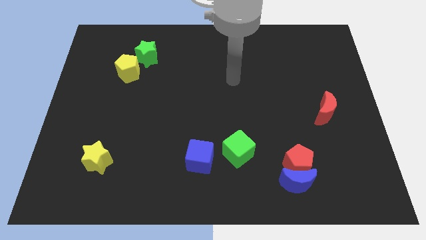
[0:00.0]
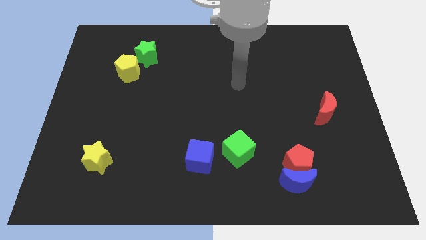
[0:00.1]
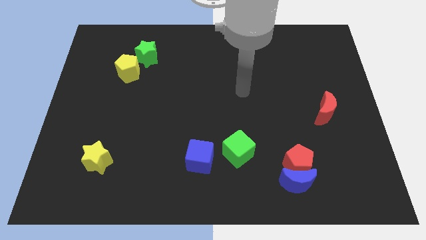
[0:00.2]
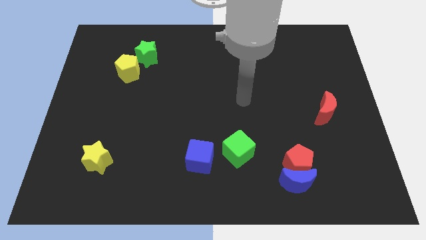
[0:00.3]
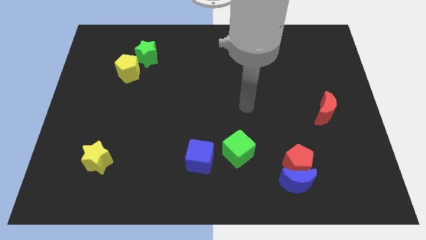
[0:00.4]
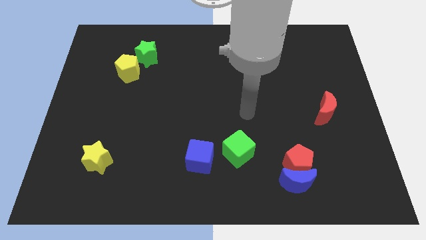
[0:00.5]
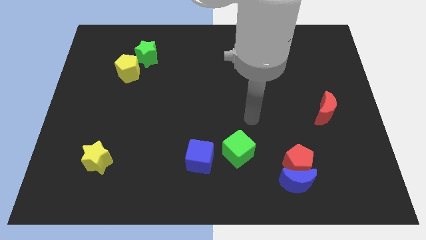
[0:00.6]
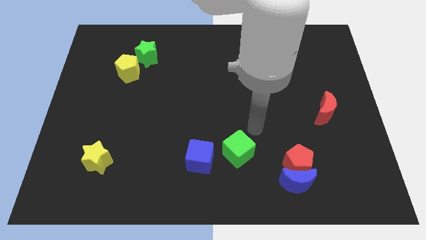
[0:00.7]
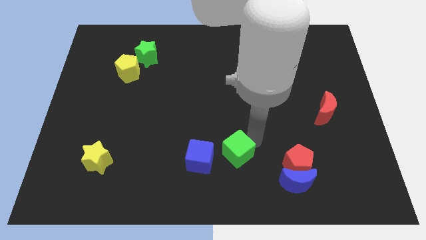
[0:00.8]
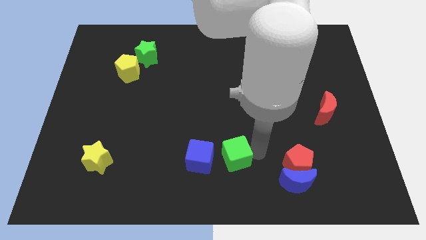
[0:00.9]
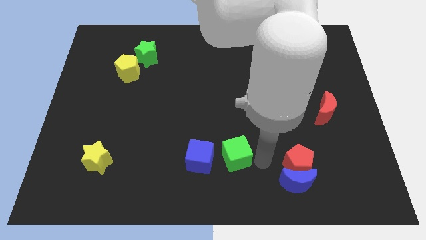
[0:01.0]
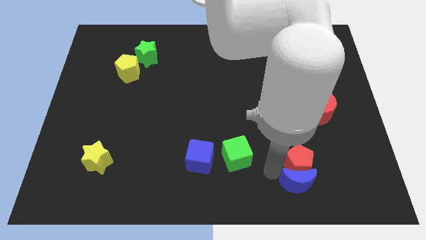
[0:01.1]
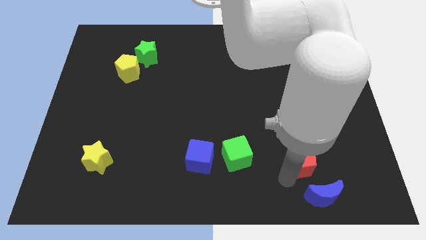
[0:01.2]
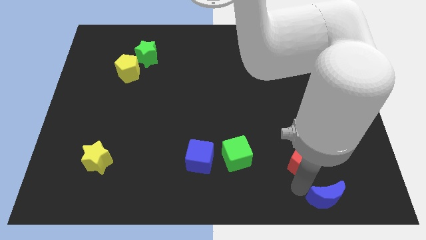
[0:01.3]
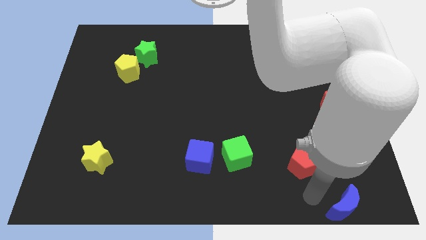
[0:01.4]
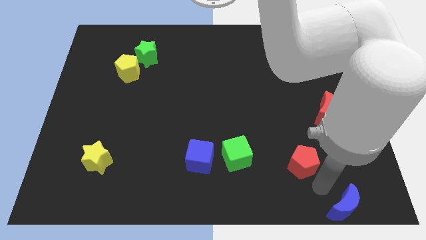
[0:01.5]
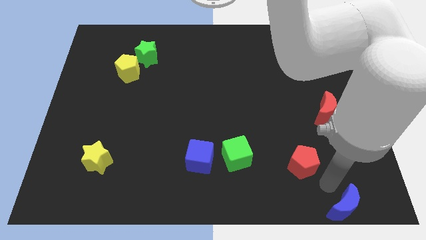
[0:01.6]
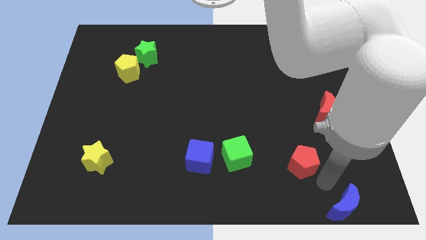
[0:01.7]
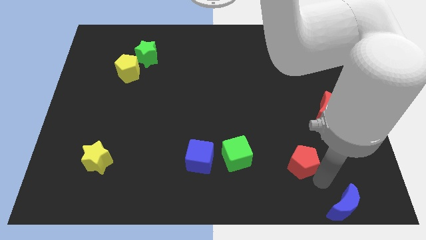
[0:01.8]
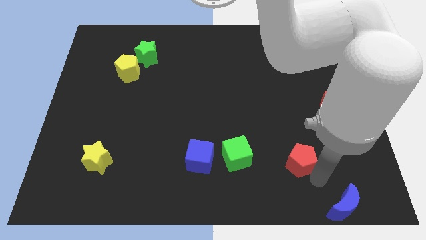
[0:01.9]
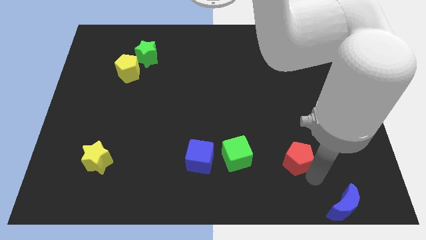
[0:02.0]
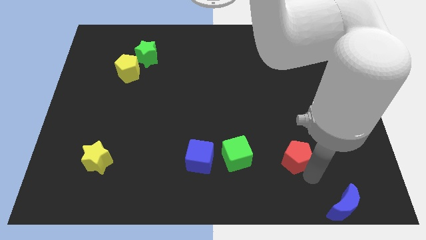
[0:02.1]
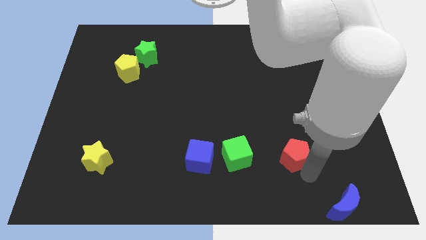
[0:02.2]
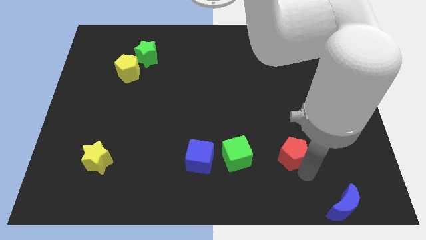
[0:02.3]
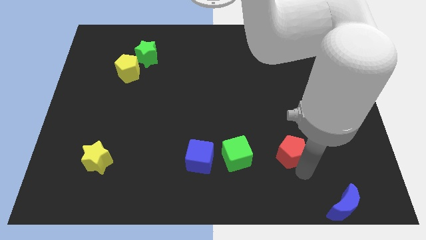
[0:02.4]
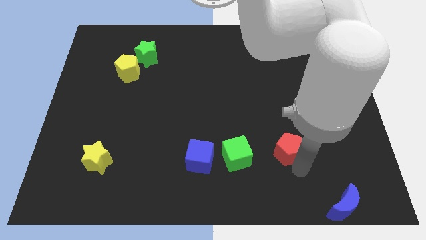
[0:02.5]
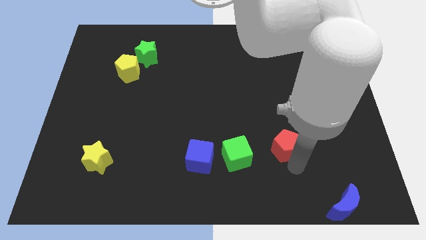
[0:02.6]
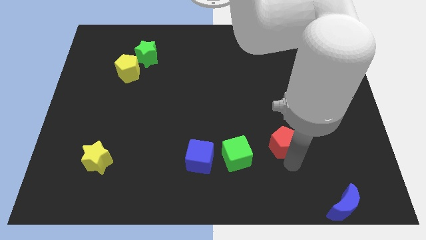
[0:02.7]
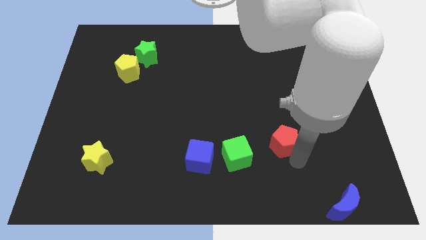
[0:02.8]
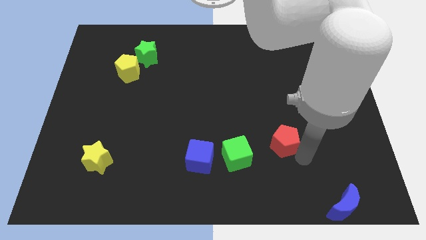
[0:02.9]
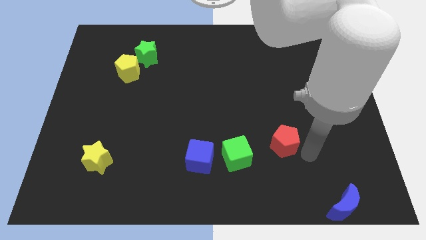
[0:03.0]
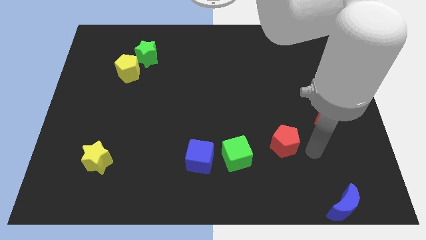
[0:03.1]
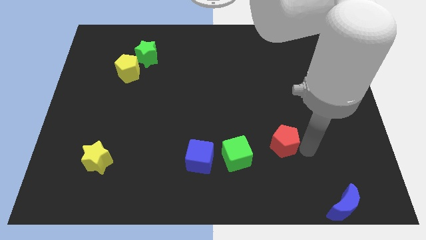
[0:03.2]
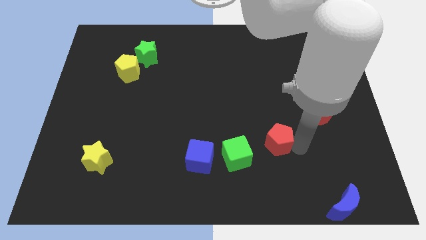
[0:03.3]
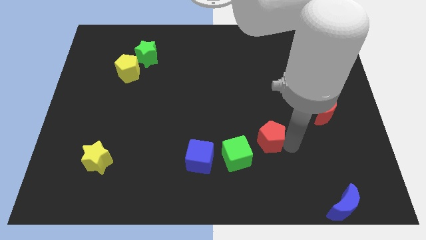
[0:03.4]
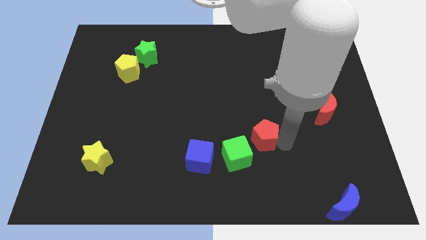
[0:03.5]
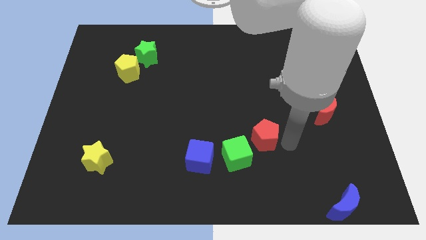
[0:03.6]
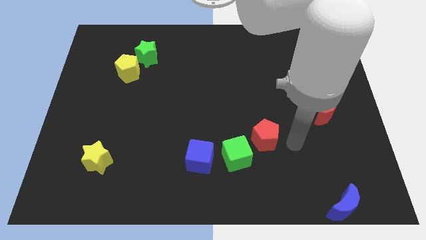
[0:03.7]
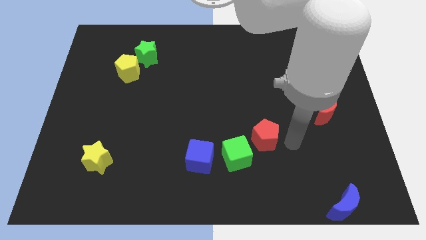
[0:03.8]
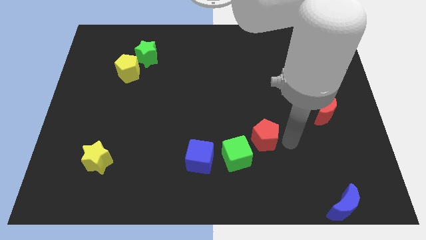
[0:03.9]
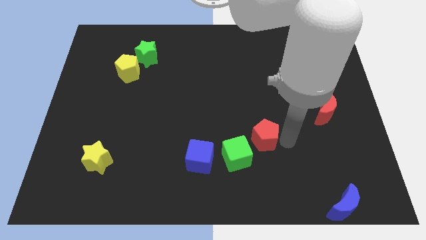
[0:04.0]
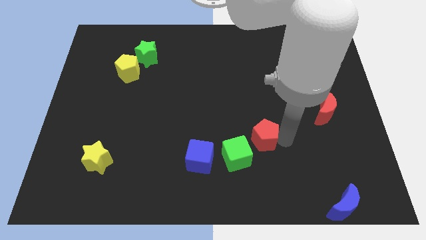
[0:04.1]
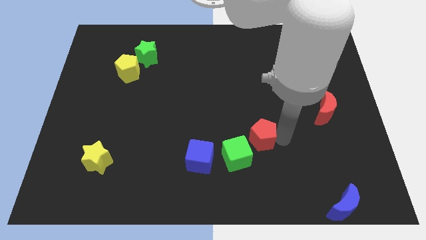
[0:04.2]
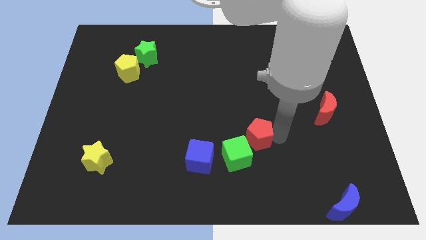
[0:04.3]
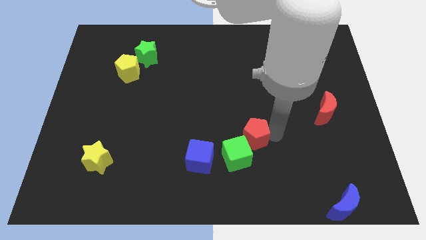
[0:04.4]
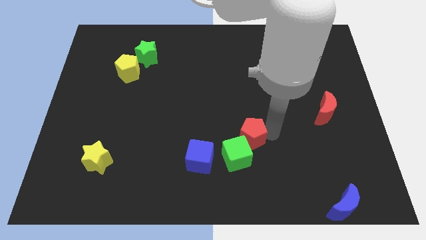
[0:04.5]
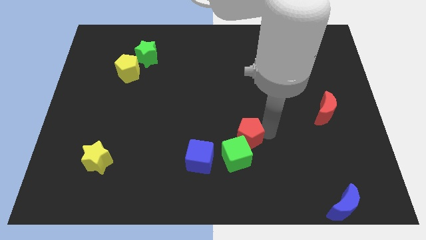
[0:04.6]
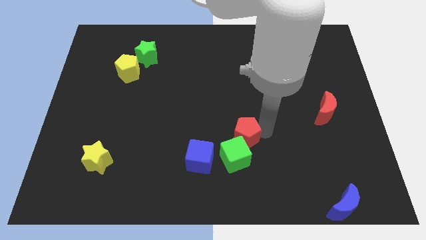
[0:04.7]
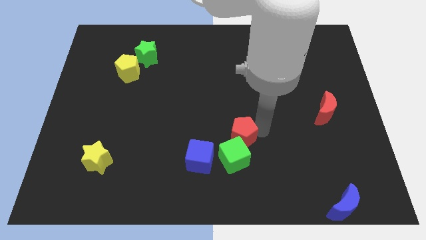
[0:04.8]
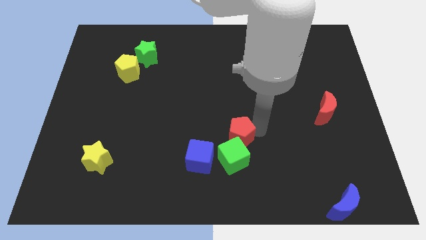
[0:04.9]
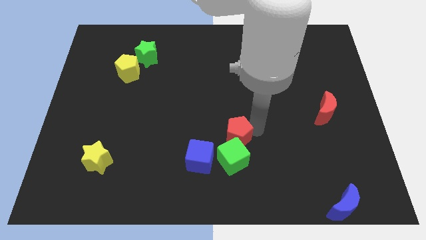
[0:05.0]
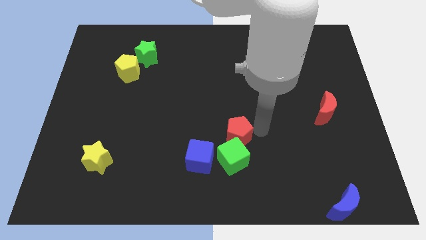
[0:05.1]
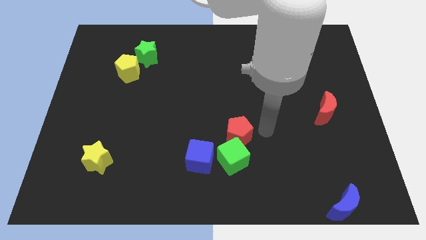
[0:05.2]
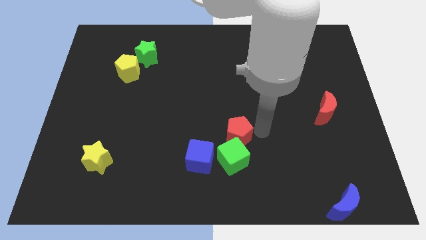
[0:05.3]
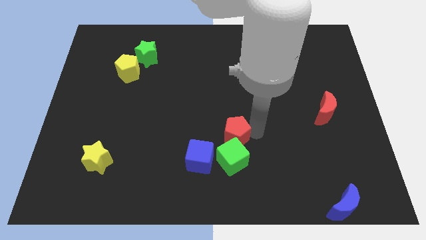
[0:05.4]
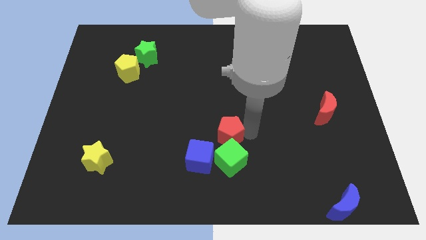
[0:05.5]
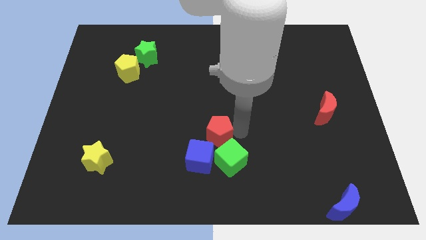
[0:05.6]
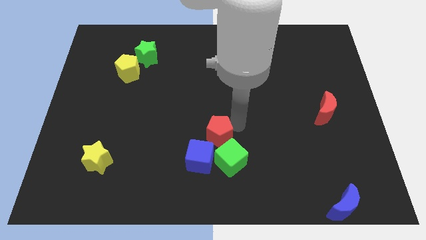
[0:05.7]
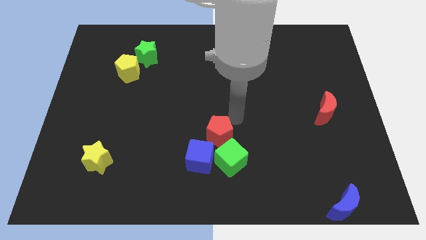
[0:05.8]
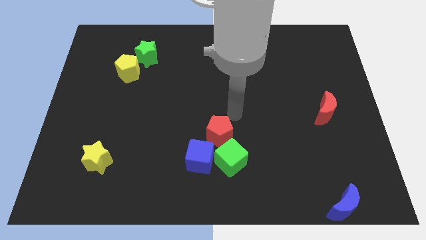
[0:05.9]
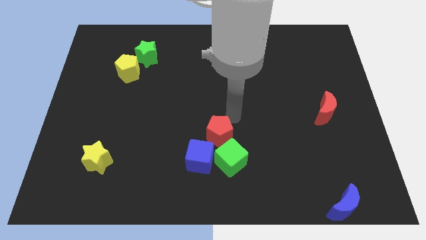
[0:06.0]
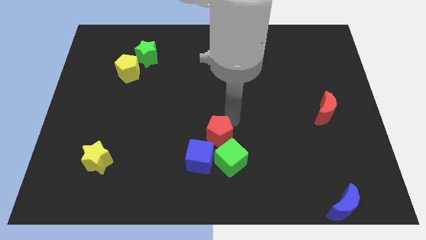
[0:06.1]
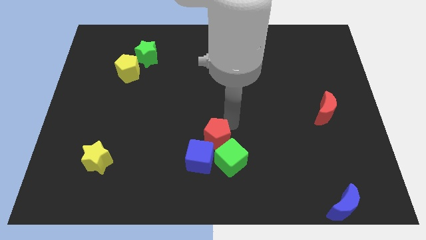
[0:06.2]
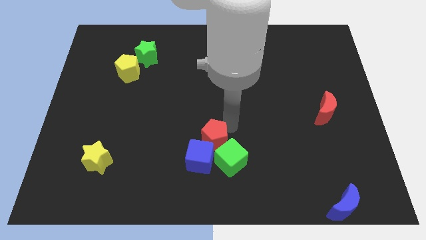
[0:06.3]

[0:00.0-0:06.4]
push the red pentagon towards the blue cube

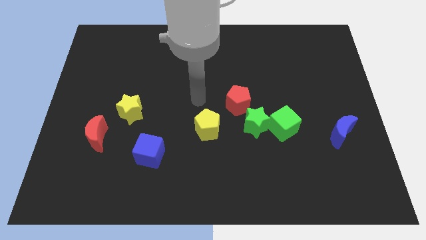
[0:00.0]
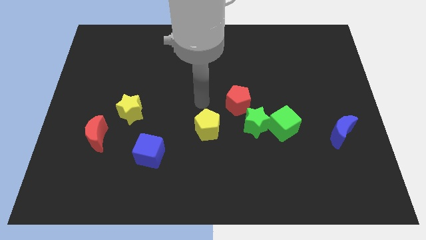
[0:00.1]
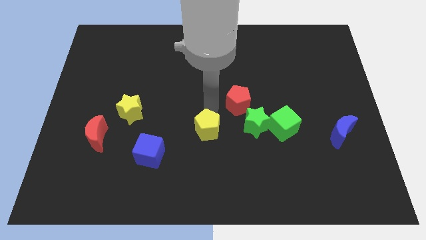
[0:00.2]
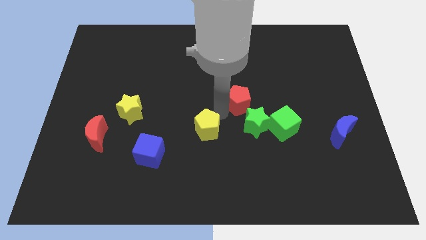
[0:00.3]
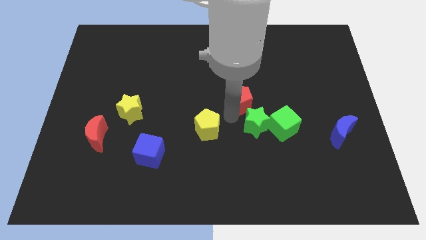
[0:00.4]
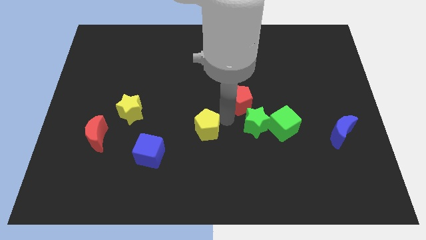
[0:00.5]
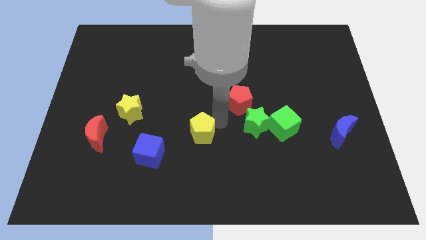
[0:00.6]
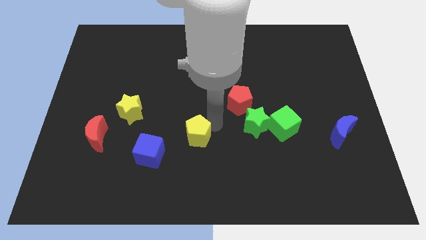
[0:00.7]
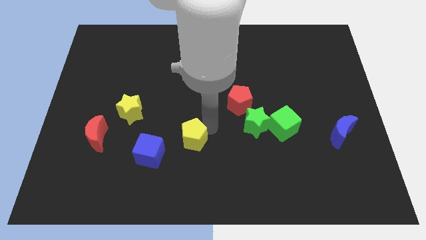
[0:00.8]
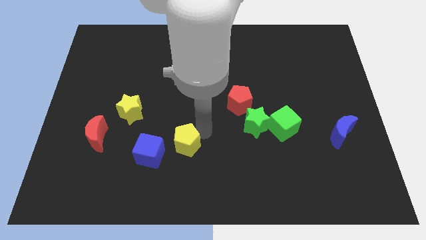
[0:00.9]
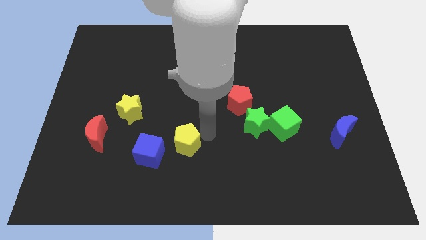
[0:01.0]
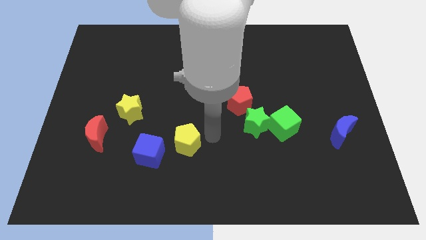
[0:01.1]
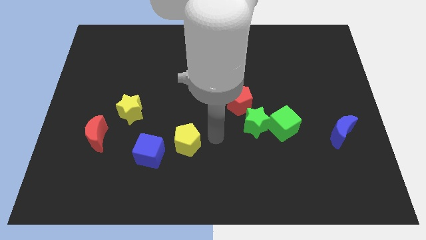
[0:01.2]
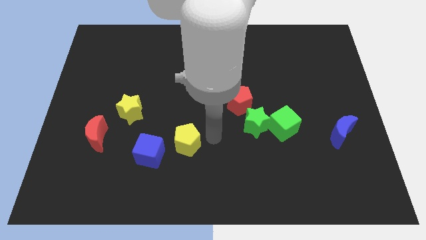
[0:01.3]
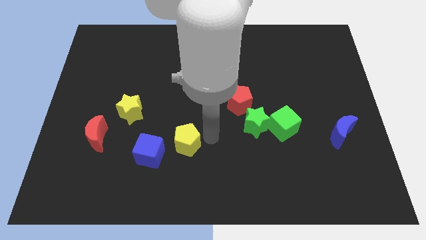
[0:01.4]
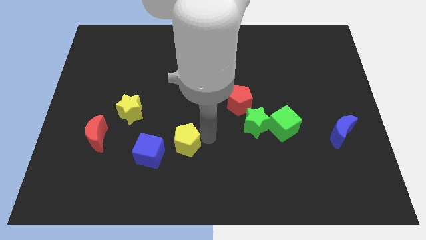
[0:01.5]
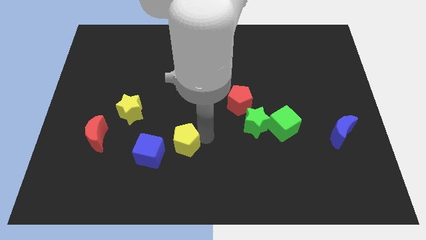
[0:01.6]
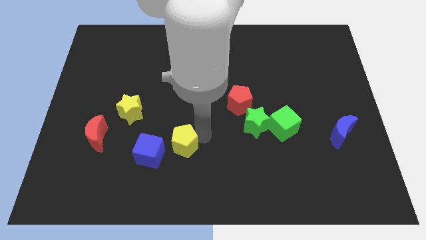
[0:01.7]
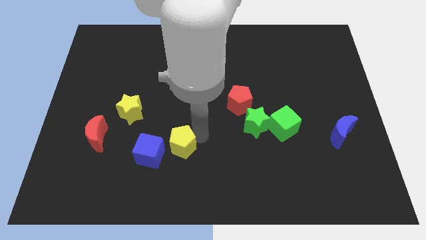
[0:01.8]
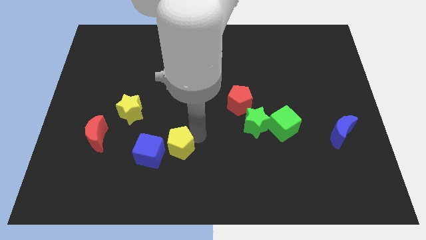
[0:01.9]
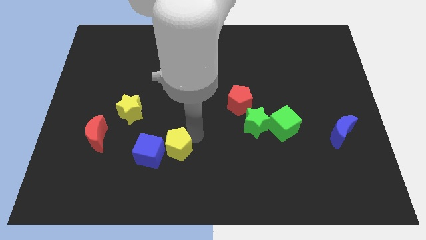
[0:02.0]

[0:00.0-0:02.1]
put the yellow pentagon towards the blue cube
